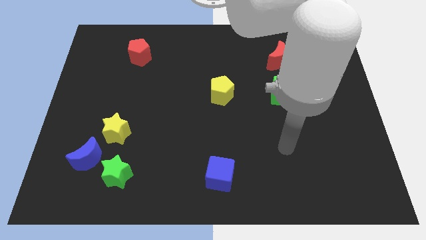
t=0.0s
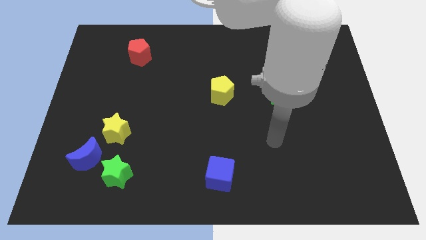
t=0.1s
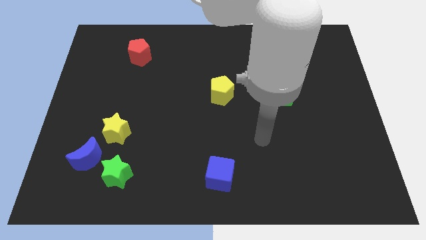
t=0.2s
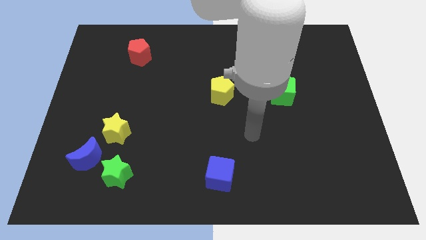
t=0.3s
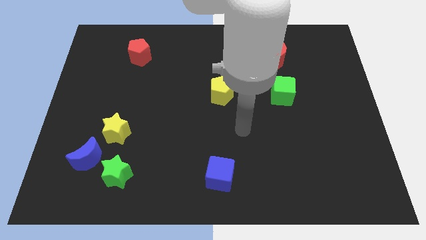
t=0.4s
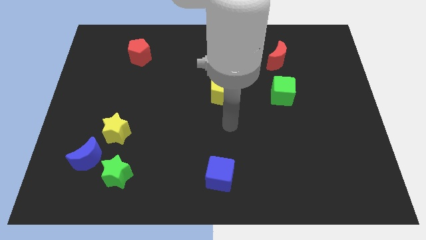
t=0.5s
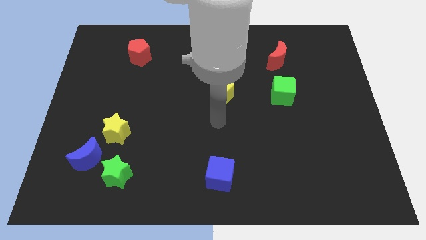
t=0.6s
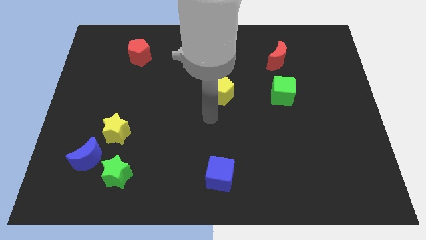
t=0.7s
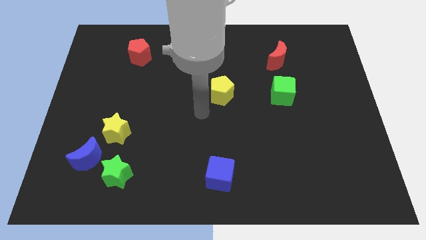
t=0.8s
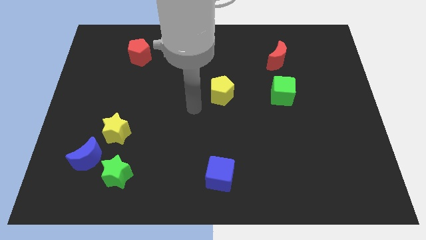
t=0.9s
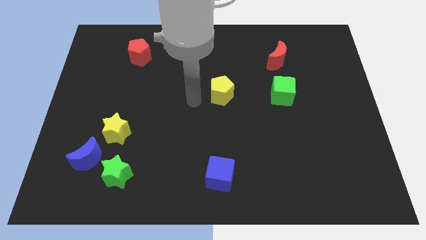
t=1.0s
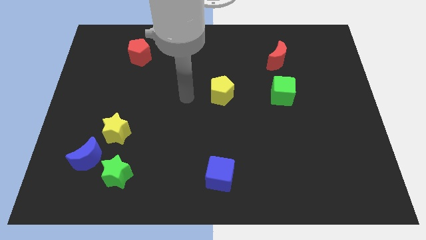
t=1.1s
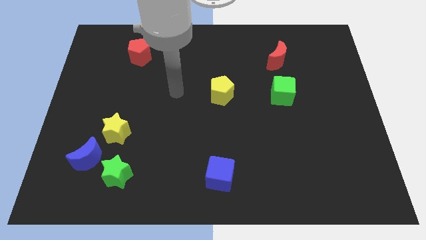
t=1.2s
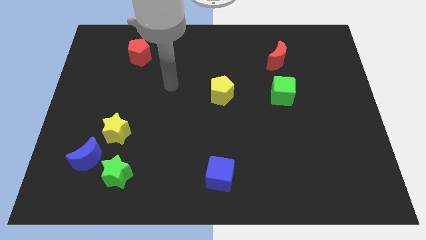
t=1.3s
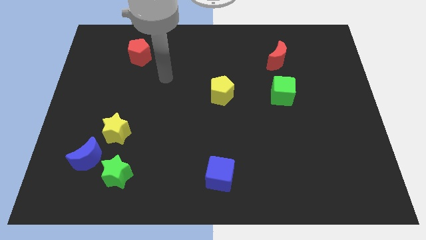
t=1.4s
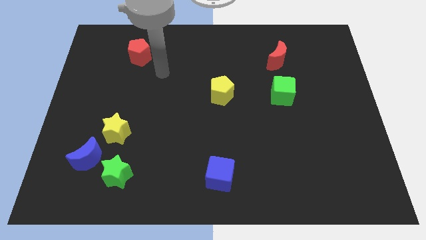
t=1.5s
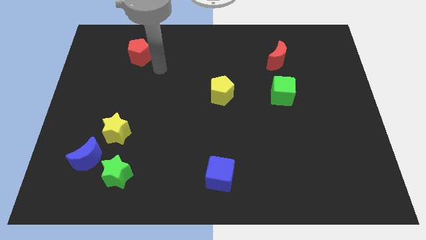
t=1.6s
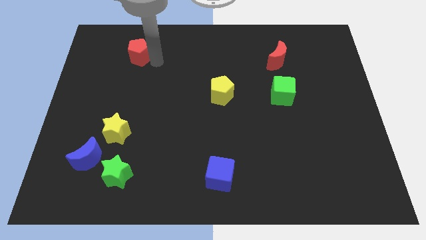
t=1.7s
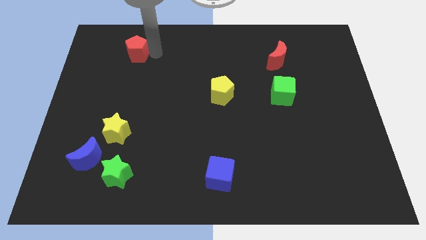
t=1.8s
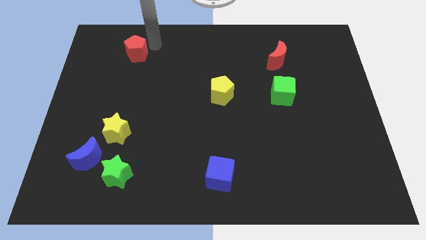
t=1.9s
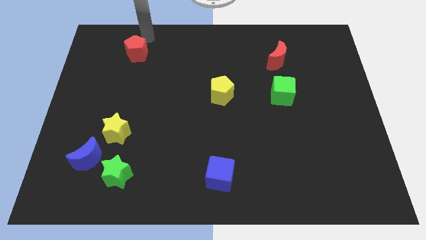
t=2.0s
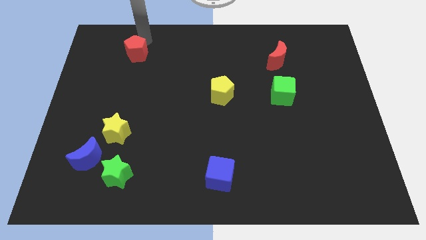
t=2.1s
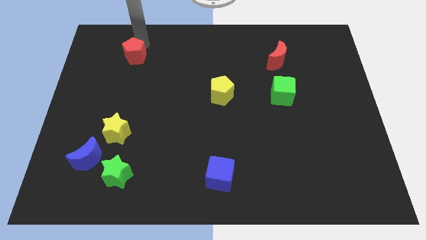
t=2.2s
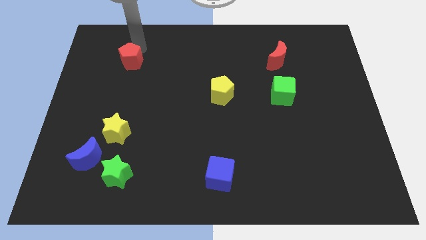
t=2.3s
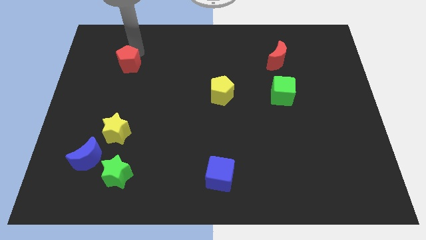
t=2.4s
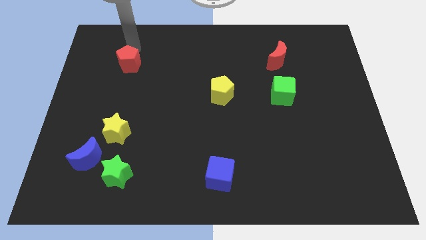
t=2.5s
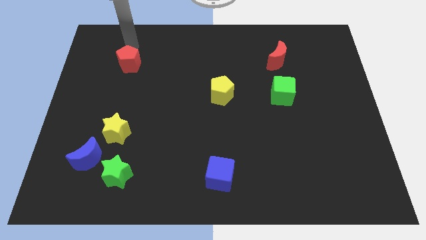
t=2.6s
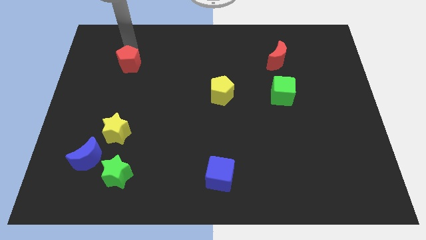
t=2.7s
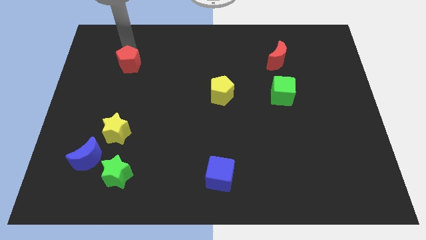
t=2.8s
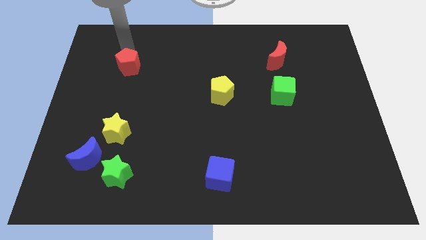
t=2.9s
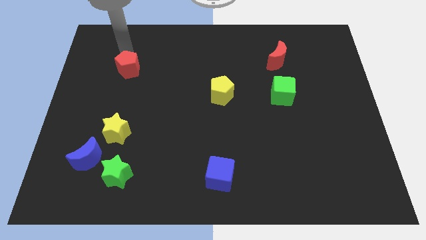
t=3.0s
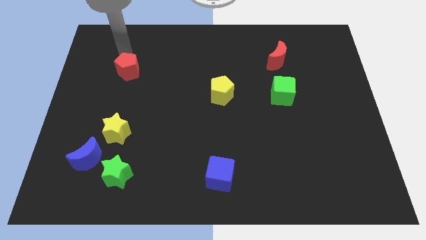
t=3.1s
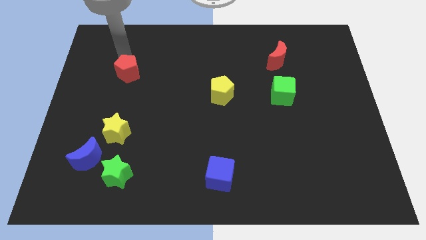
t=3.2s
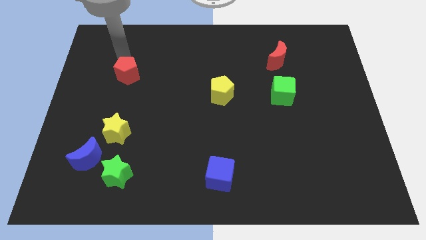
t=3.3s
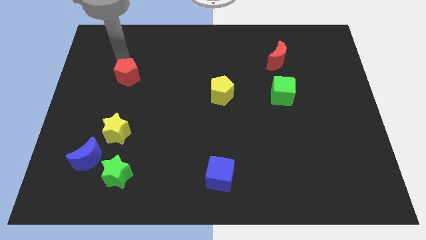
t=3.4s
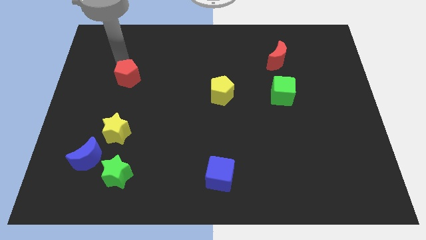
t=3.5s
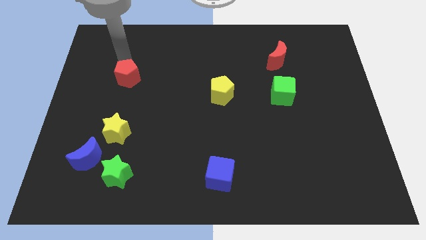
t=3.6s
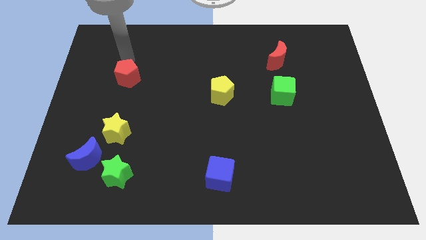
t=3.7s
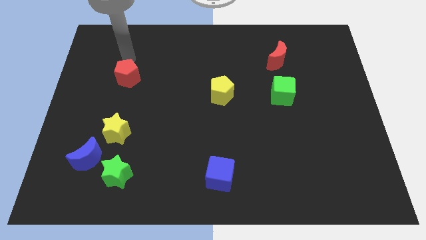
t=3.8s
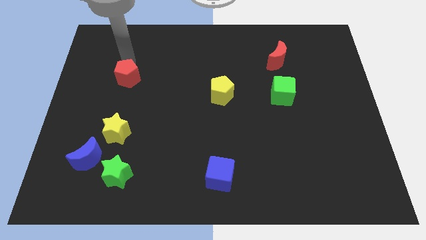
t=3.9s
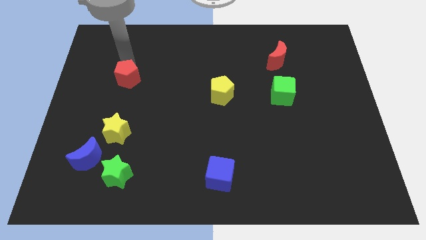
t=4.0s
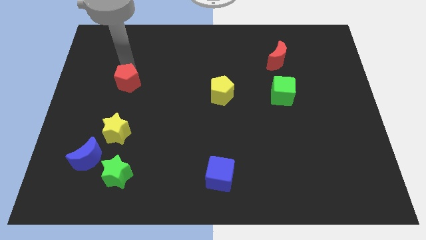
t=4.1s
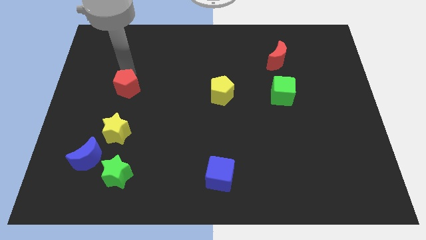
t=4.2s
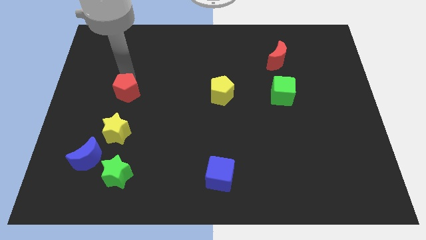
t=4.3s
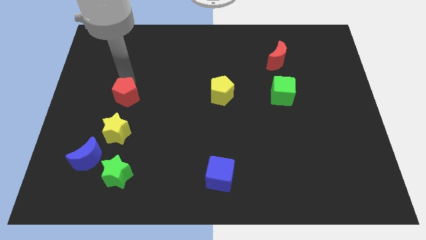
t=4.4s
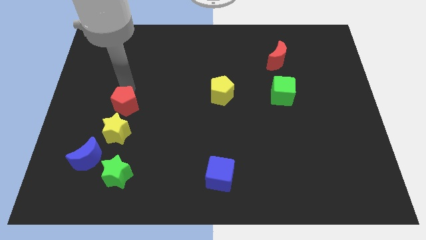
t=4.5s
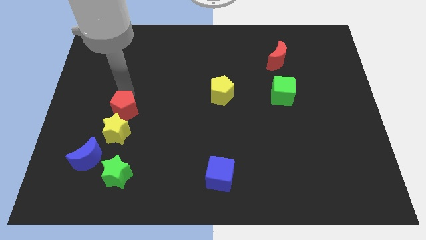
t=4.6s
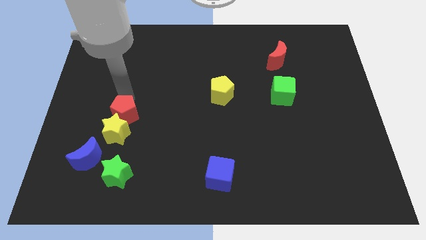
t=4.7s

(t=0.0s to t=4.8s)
push the red pentagon close to the yellow star

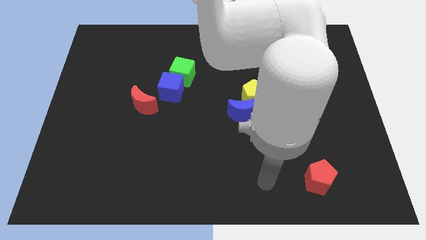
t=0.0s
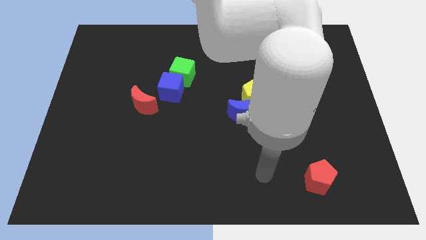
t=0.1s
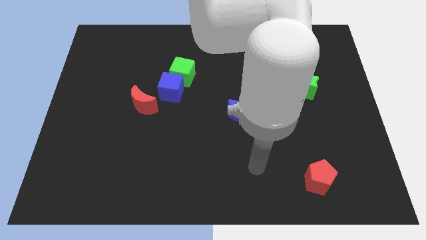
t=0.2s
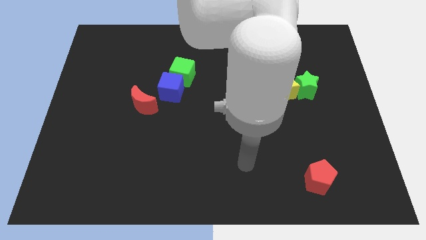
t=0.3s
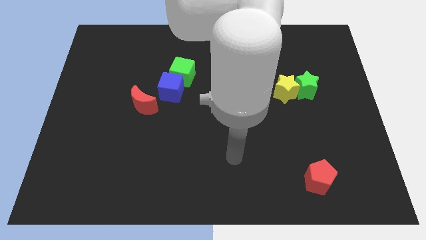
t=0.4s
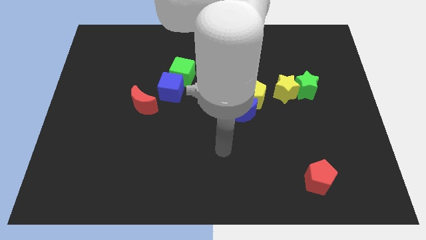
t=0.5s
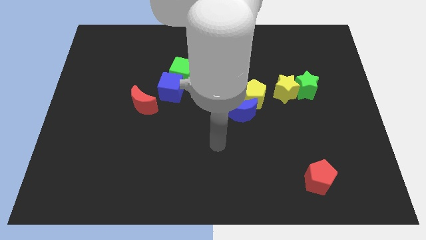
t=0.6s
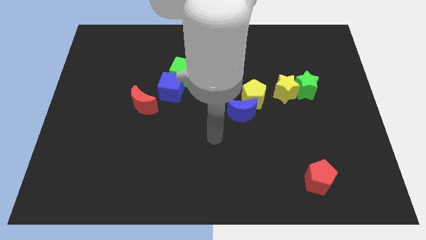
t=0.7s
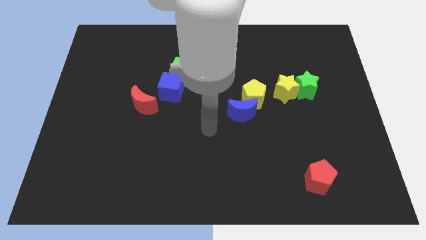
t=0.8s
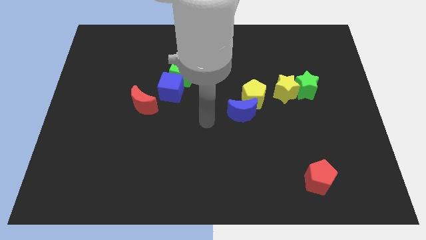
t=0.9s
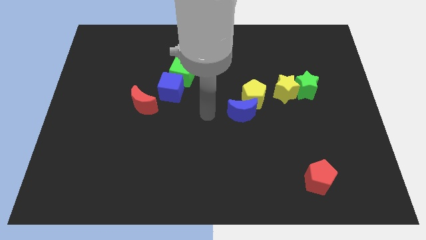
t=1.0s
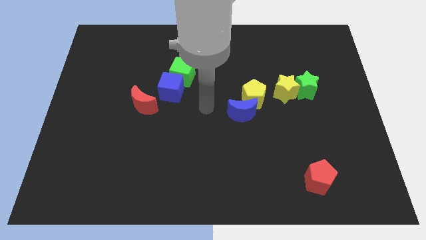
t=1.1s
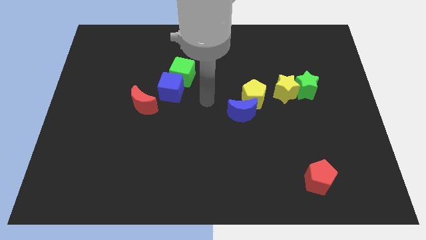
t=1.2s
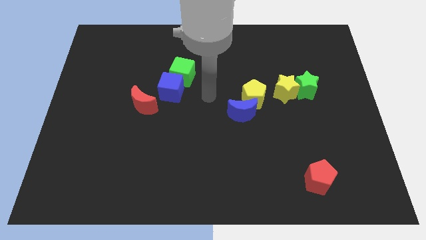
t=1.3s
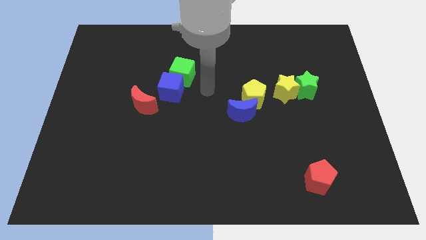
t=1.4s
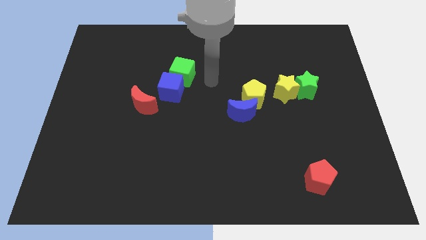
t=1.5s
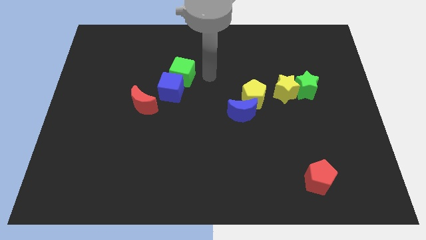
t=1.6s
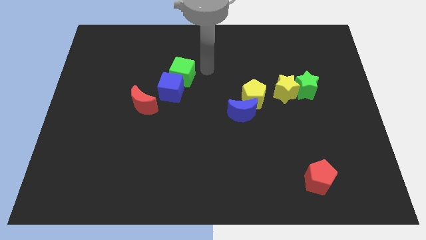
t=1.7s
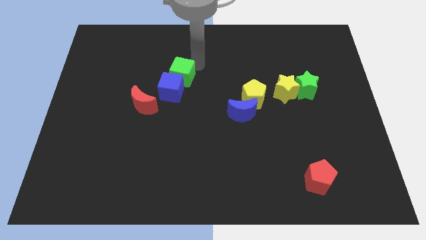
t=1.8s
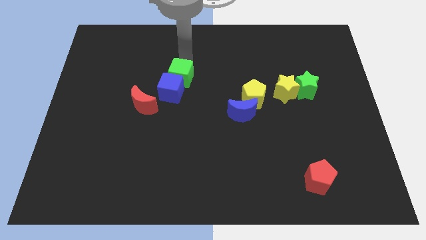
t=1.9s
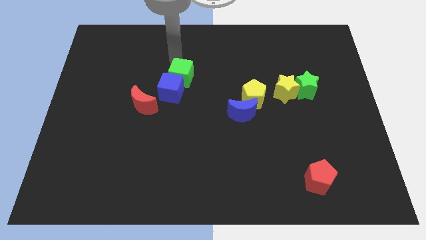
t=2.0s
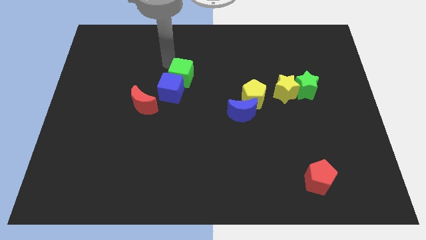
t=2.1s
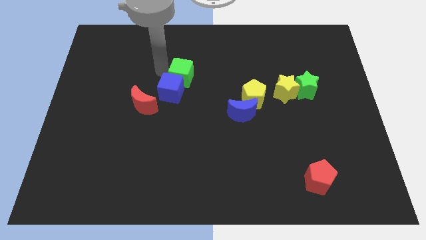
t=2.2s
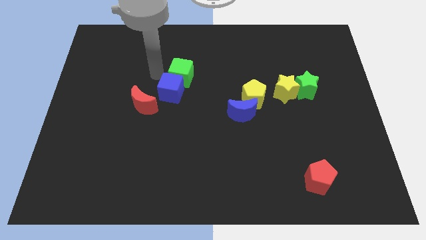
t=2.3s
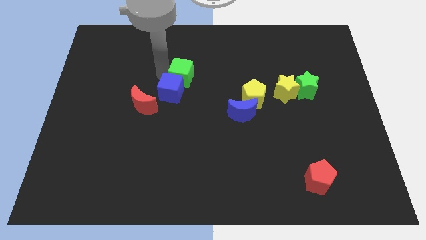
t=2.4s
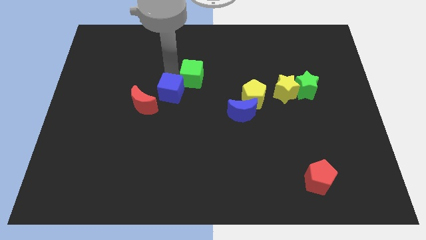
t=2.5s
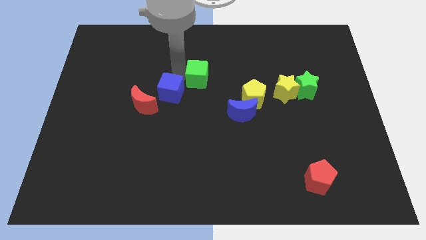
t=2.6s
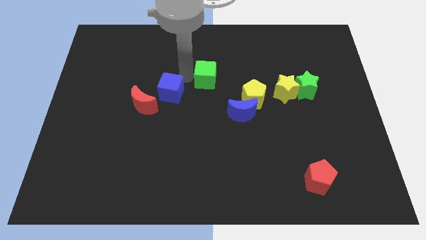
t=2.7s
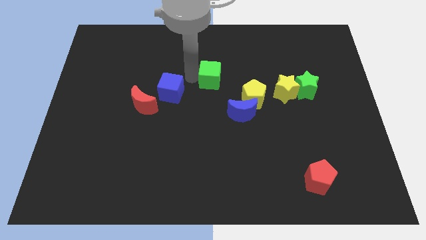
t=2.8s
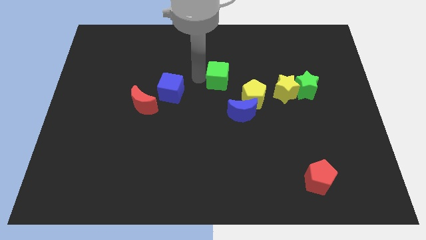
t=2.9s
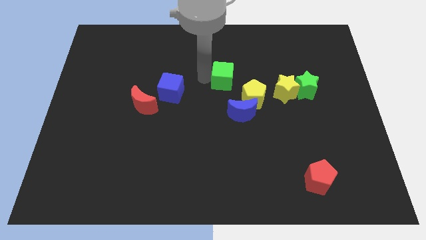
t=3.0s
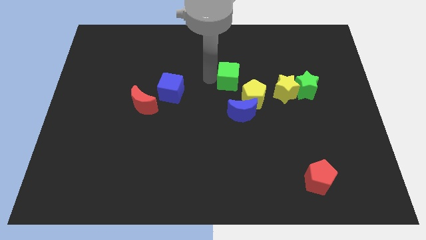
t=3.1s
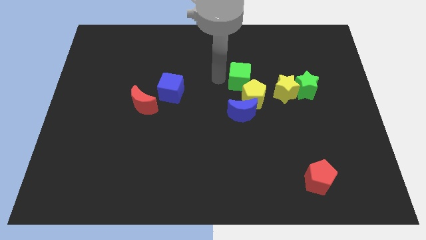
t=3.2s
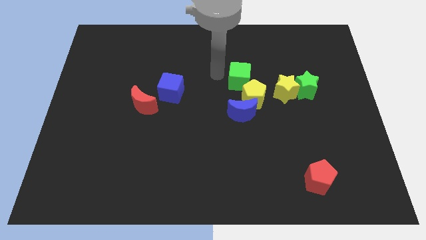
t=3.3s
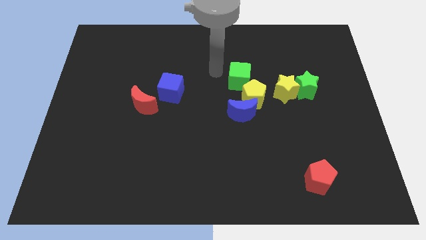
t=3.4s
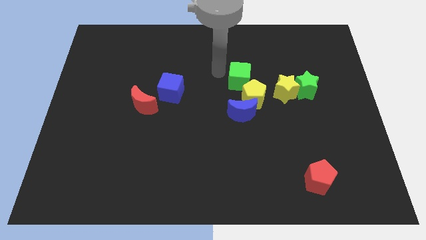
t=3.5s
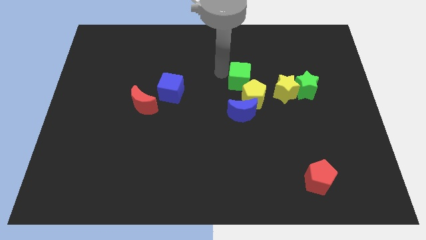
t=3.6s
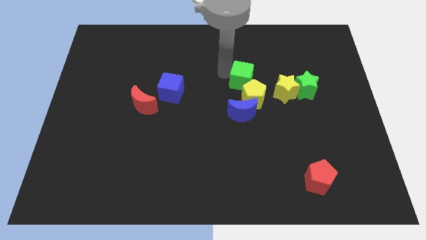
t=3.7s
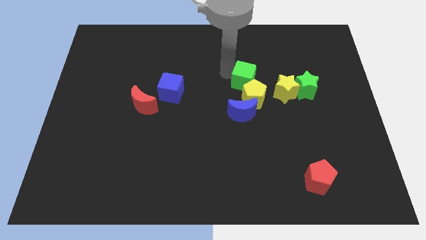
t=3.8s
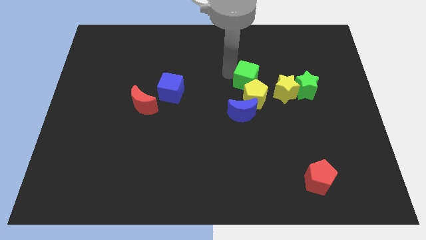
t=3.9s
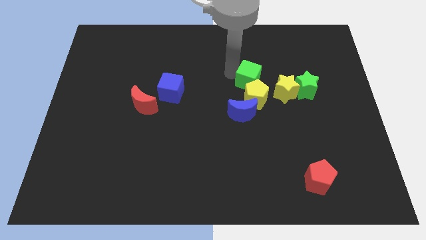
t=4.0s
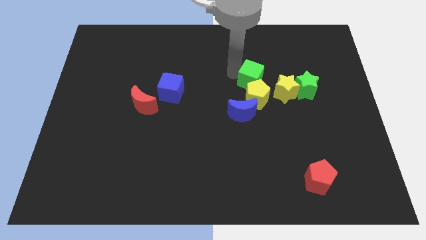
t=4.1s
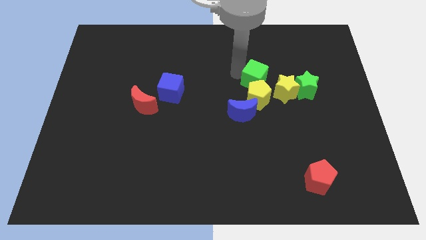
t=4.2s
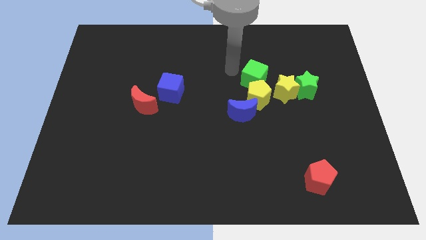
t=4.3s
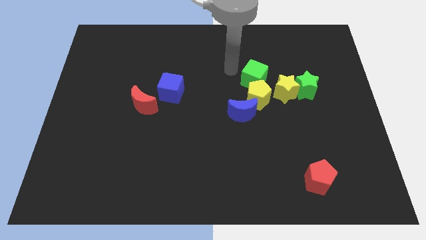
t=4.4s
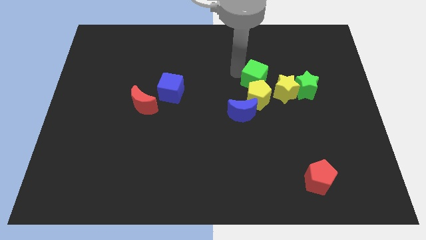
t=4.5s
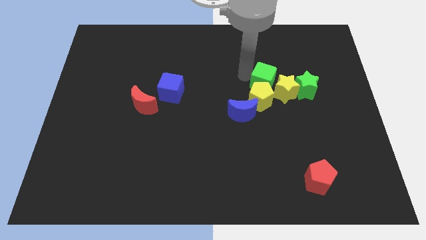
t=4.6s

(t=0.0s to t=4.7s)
slide the green cube close to the yellow star
